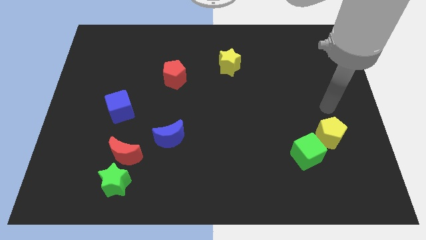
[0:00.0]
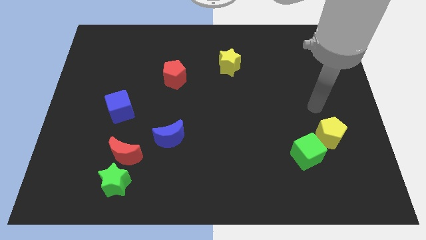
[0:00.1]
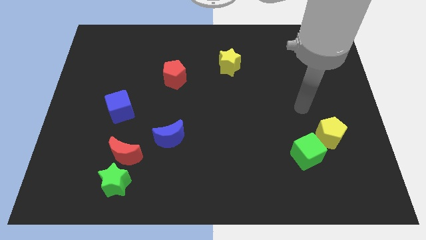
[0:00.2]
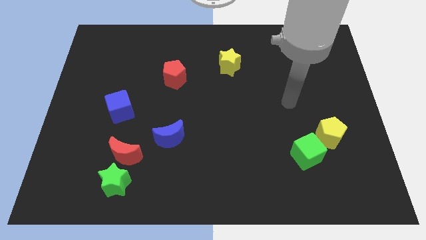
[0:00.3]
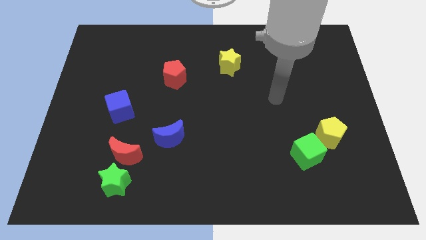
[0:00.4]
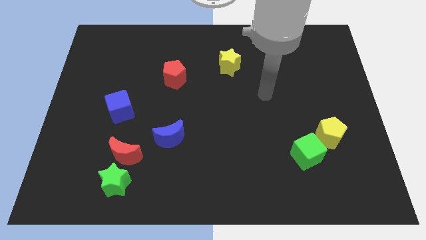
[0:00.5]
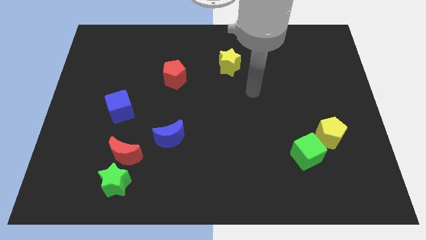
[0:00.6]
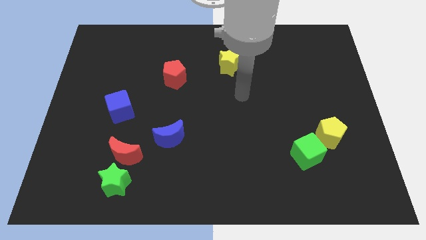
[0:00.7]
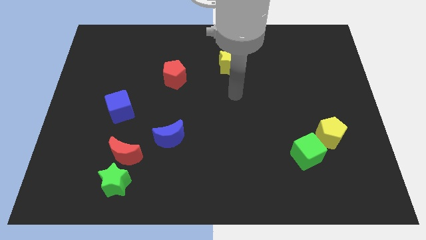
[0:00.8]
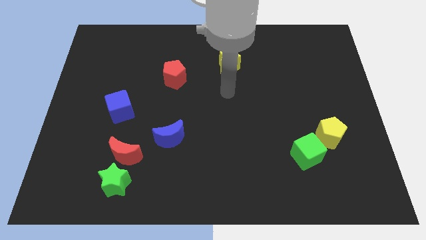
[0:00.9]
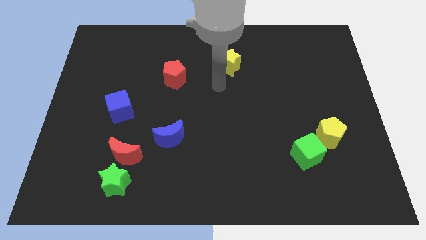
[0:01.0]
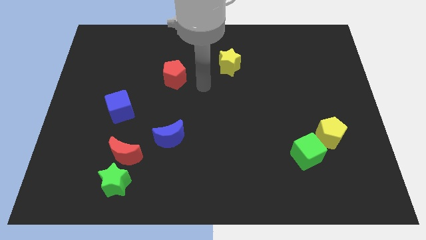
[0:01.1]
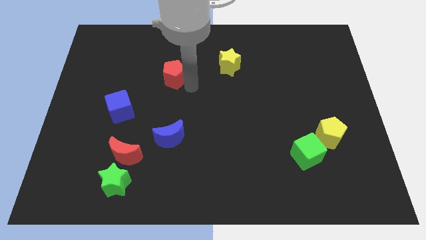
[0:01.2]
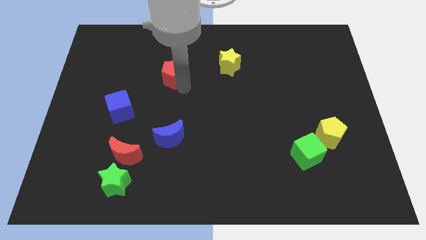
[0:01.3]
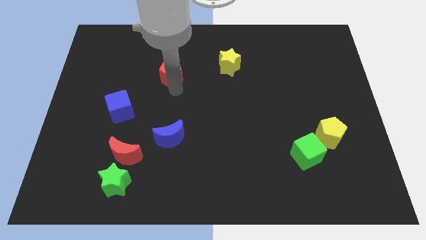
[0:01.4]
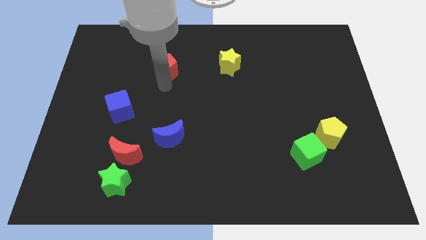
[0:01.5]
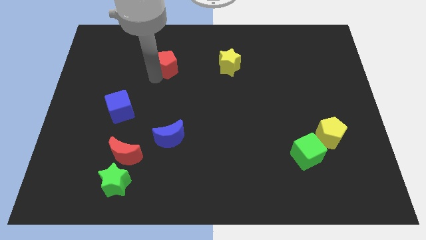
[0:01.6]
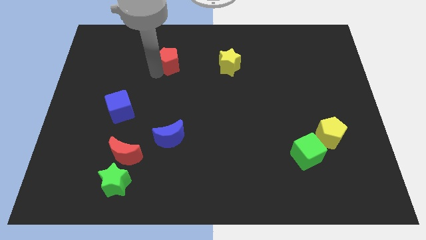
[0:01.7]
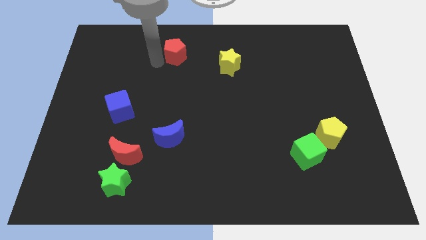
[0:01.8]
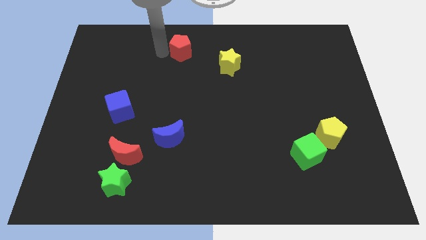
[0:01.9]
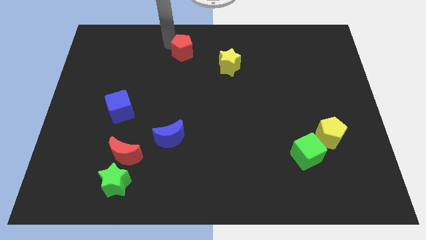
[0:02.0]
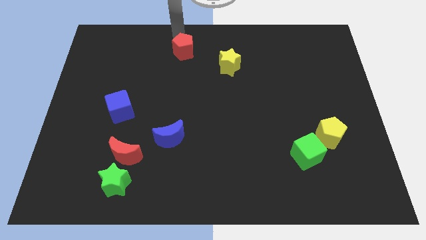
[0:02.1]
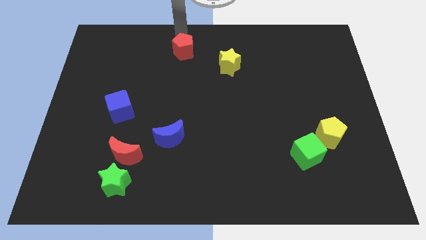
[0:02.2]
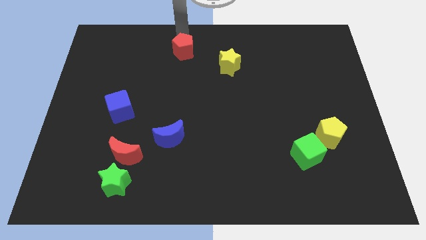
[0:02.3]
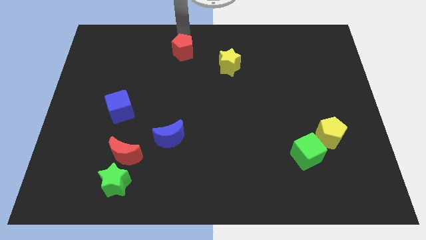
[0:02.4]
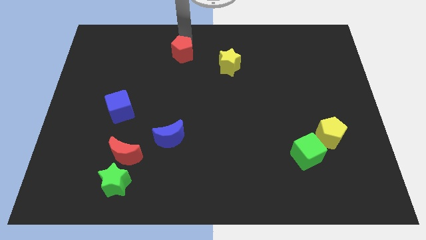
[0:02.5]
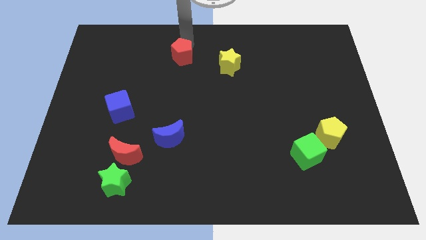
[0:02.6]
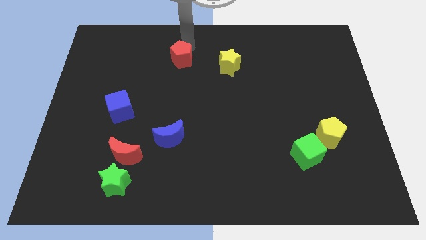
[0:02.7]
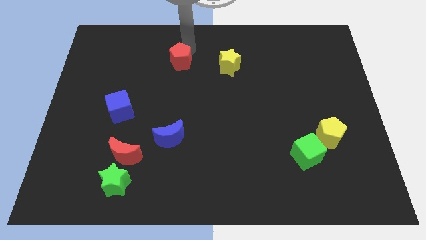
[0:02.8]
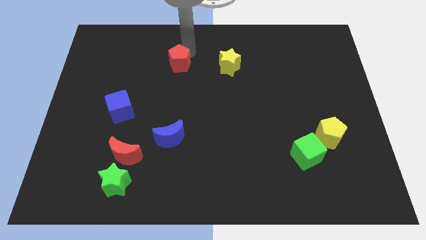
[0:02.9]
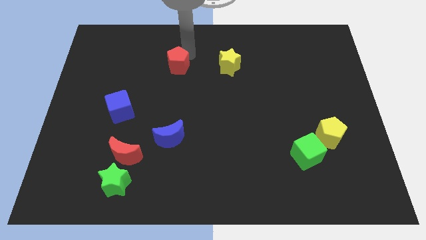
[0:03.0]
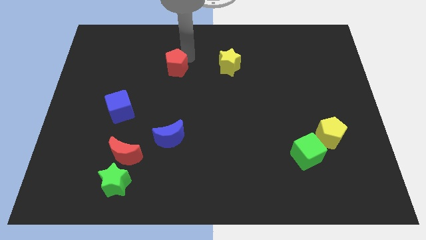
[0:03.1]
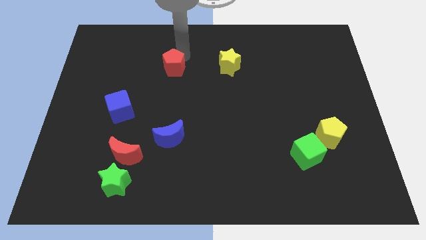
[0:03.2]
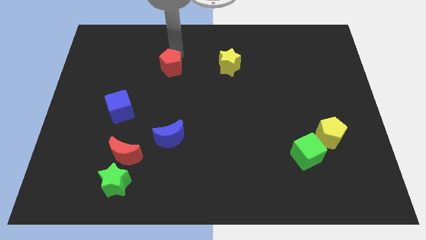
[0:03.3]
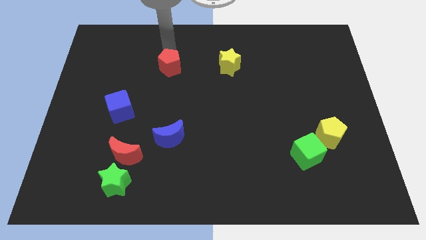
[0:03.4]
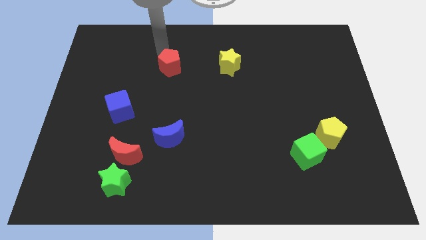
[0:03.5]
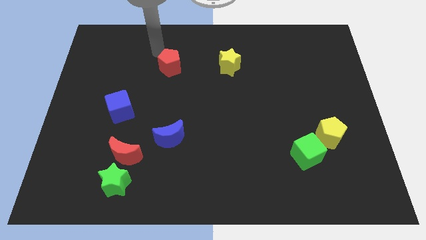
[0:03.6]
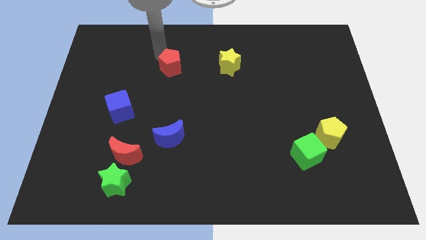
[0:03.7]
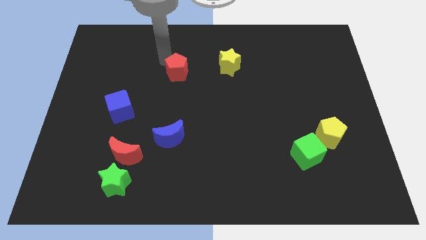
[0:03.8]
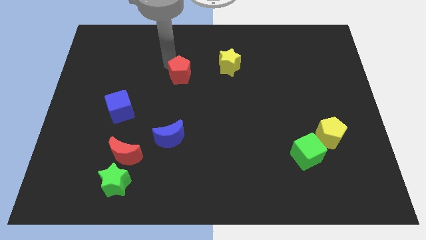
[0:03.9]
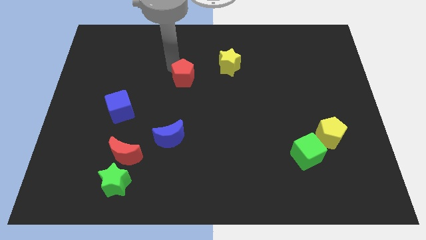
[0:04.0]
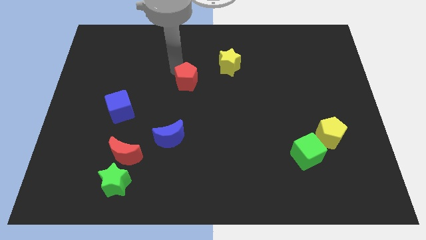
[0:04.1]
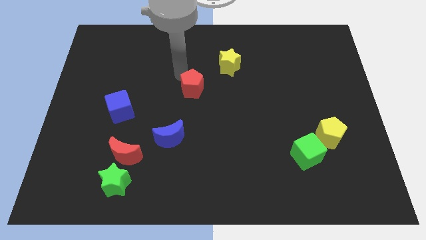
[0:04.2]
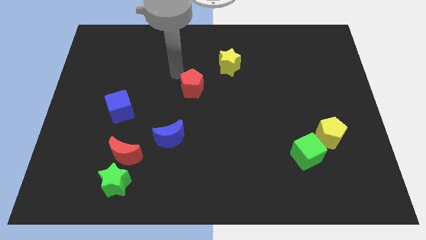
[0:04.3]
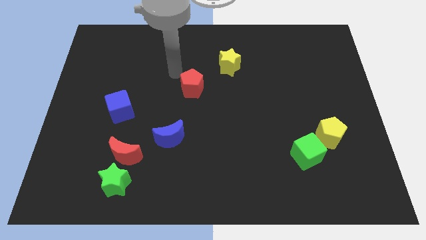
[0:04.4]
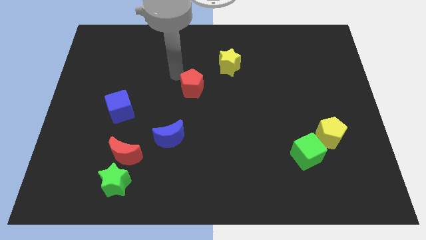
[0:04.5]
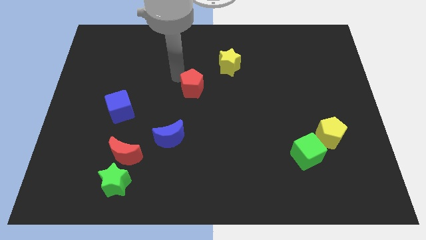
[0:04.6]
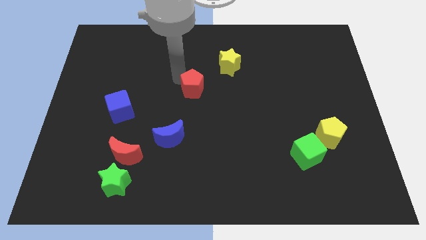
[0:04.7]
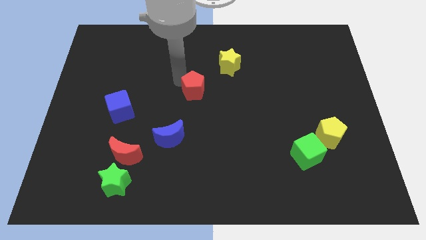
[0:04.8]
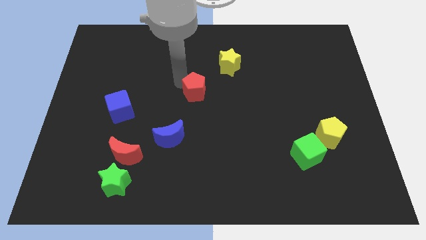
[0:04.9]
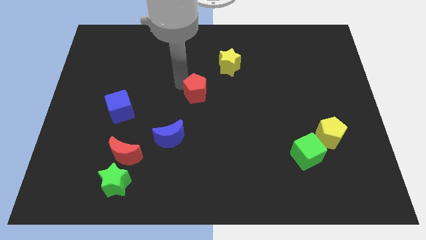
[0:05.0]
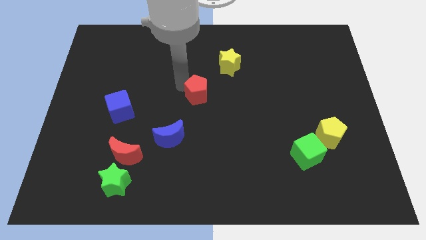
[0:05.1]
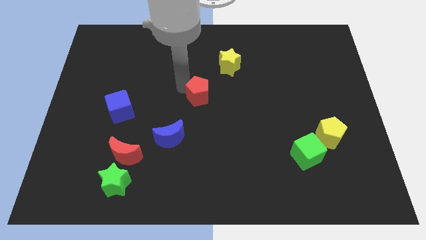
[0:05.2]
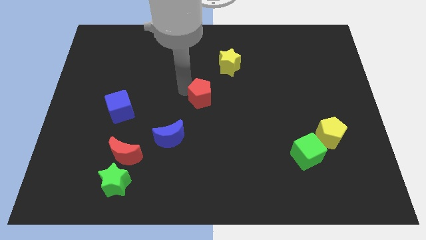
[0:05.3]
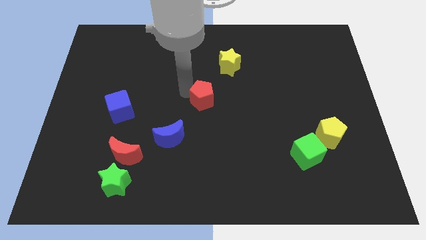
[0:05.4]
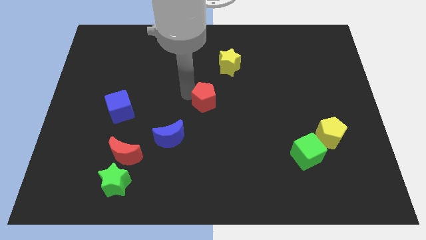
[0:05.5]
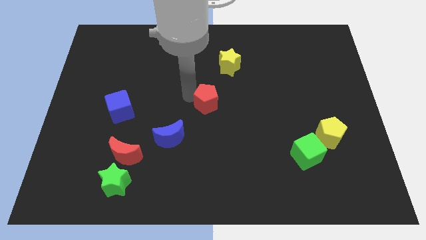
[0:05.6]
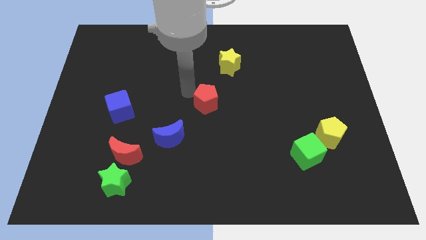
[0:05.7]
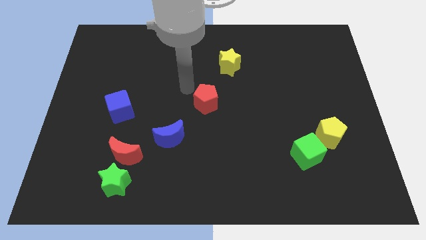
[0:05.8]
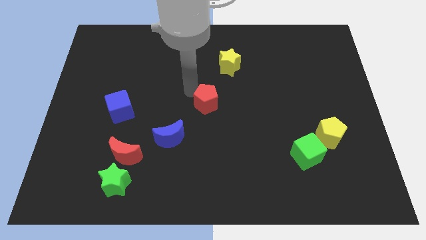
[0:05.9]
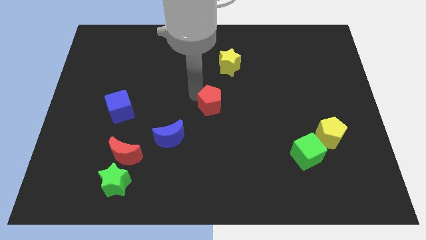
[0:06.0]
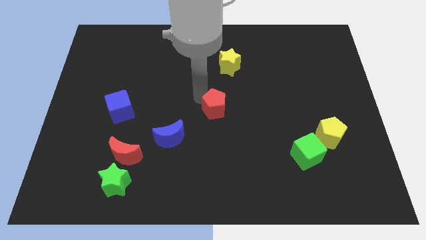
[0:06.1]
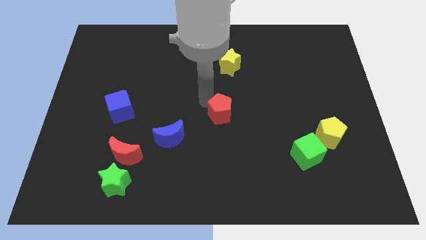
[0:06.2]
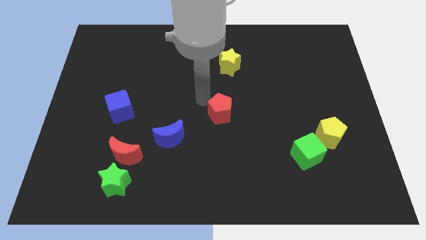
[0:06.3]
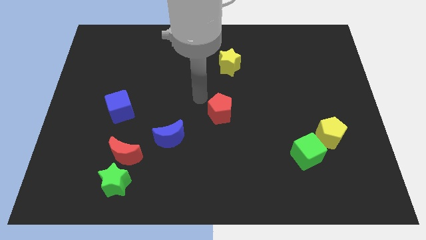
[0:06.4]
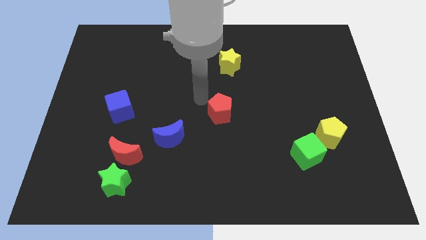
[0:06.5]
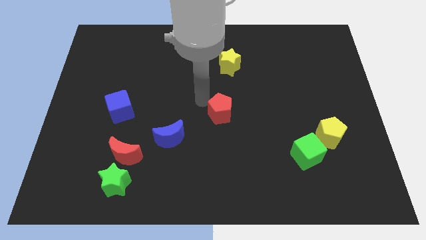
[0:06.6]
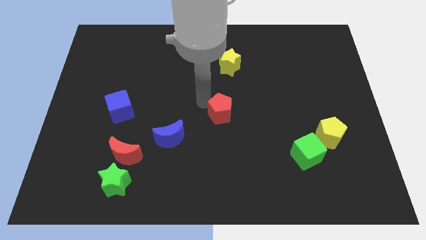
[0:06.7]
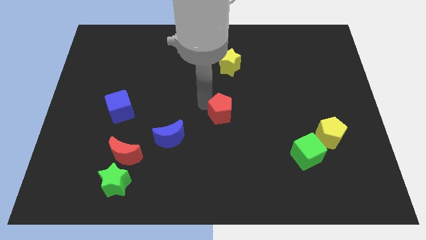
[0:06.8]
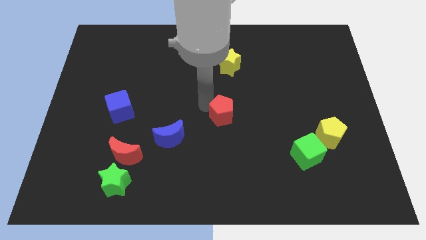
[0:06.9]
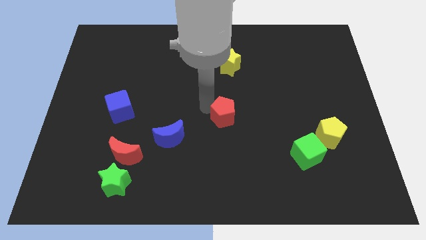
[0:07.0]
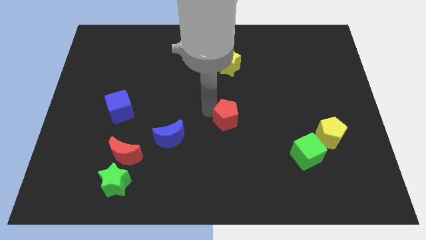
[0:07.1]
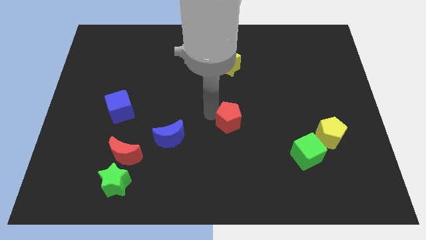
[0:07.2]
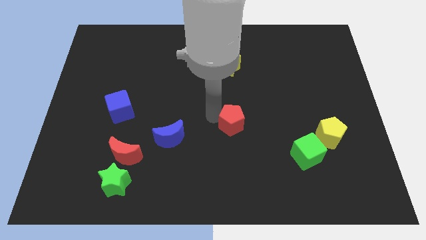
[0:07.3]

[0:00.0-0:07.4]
slide the red pentagon downwards and to the right

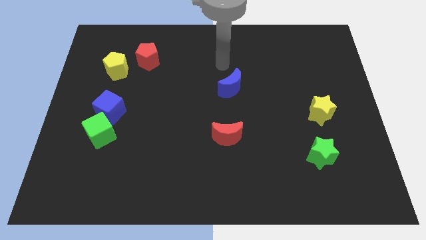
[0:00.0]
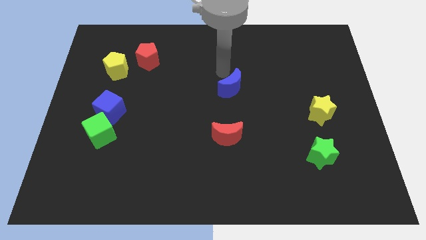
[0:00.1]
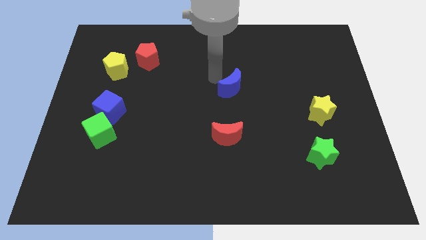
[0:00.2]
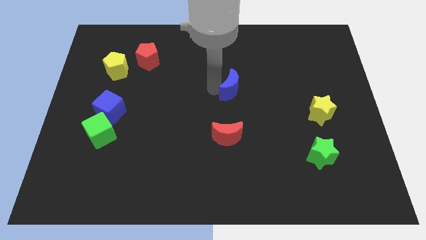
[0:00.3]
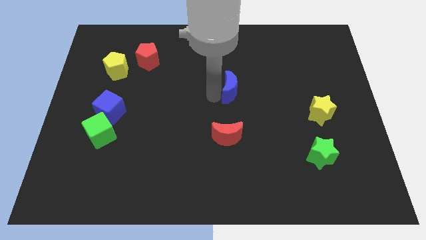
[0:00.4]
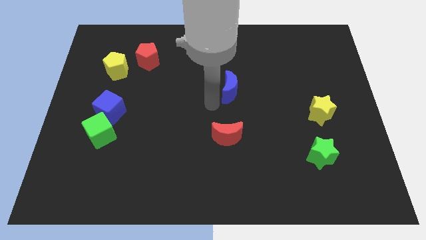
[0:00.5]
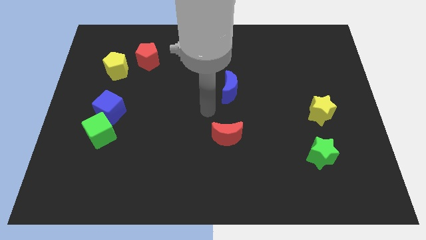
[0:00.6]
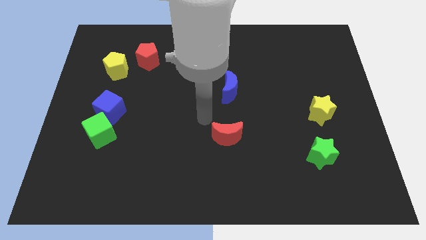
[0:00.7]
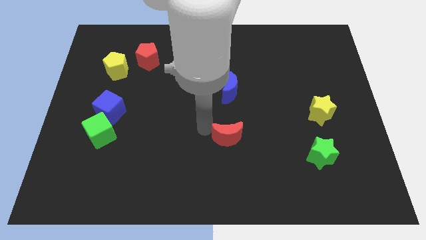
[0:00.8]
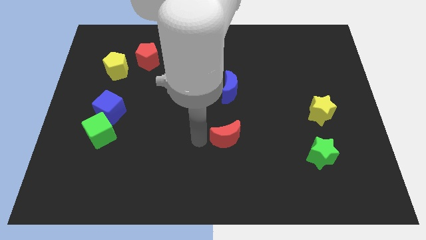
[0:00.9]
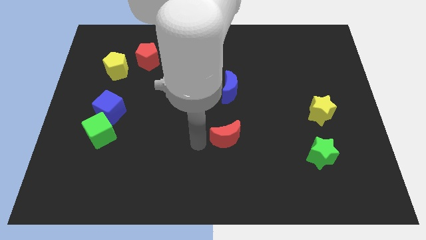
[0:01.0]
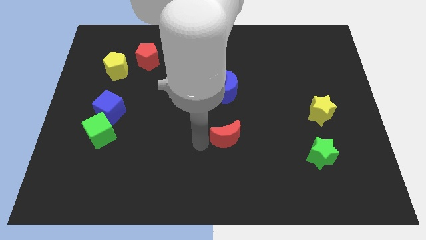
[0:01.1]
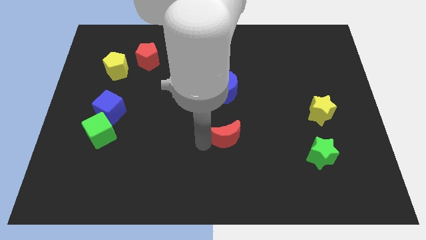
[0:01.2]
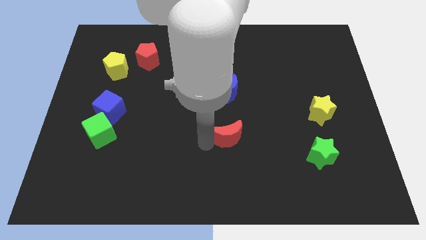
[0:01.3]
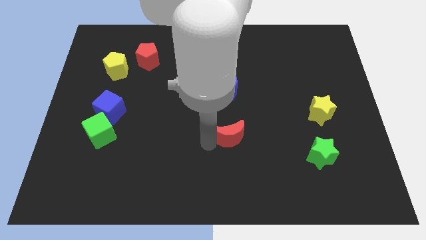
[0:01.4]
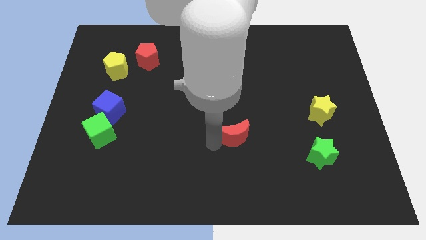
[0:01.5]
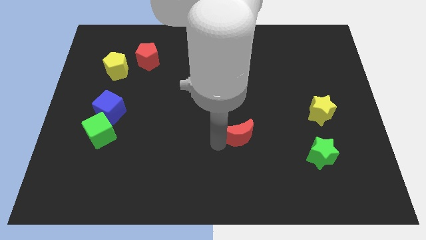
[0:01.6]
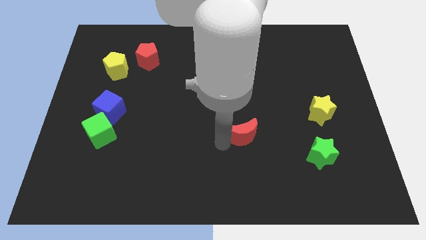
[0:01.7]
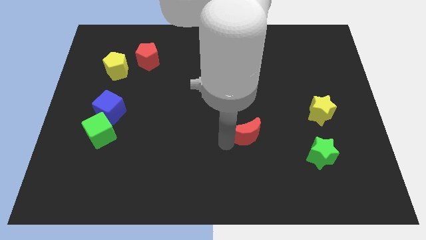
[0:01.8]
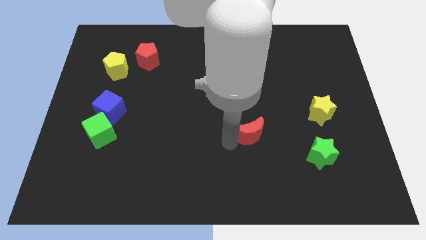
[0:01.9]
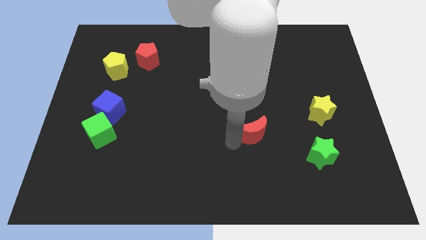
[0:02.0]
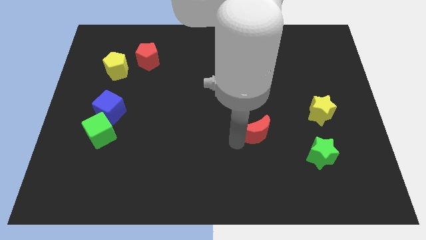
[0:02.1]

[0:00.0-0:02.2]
move the red moon to the right a little
